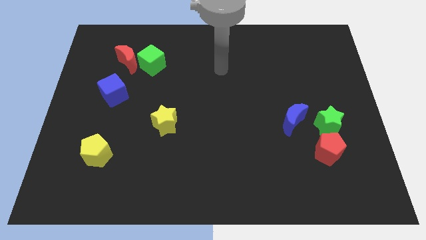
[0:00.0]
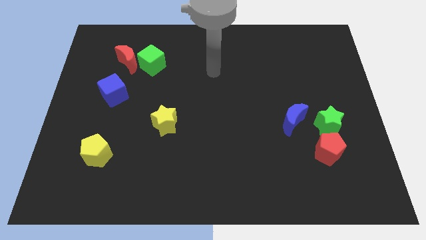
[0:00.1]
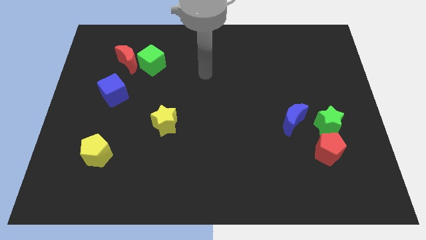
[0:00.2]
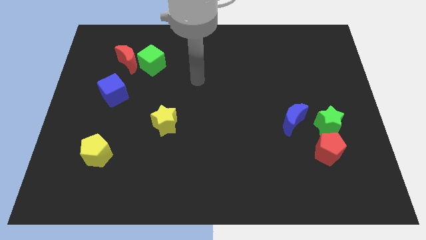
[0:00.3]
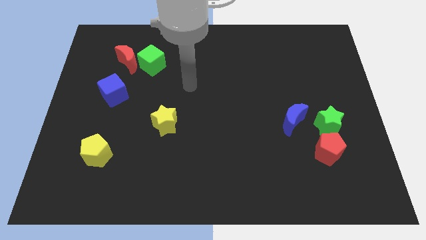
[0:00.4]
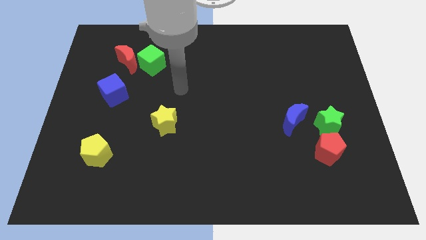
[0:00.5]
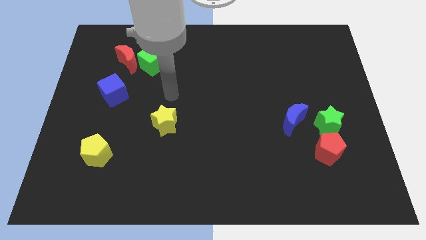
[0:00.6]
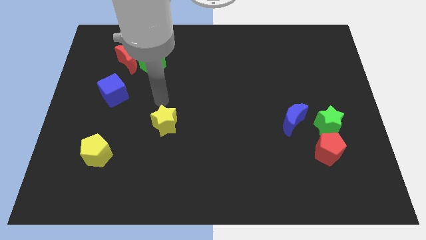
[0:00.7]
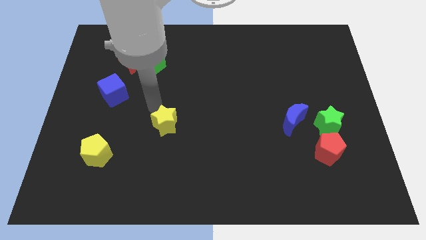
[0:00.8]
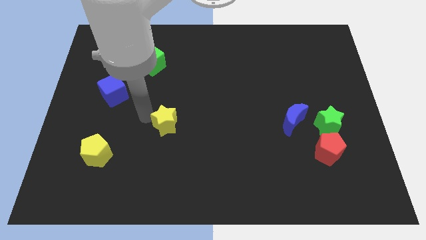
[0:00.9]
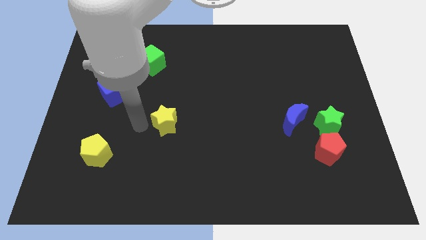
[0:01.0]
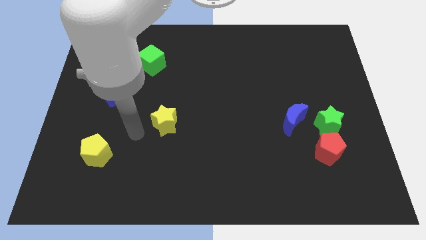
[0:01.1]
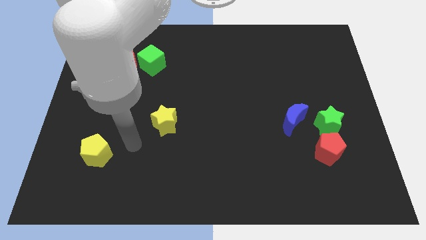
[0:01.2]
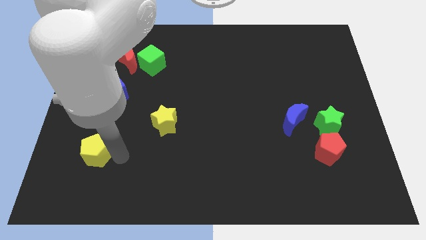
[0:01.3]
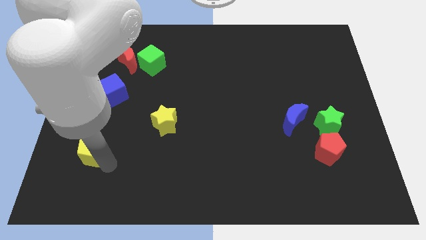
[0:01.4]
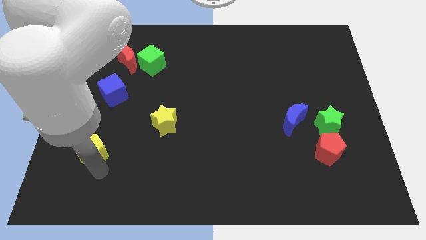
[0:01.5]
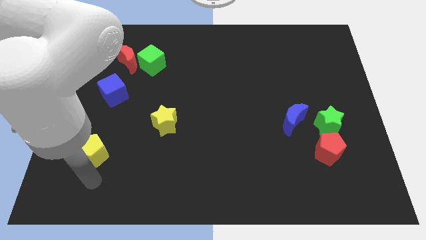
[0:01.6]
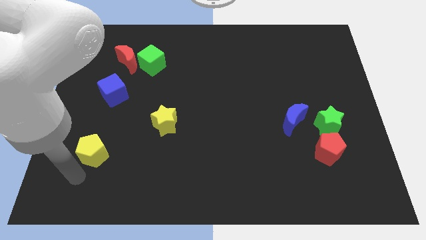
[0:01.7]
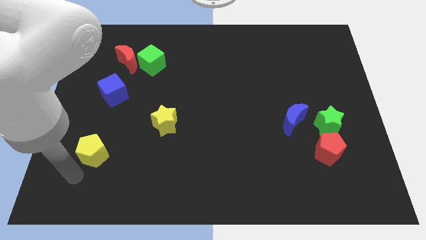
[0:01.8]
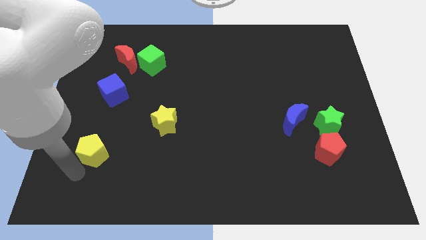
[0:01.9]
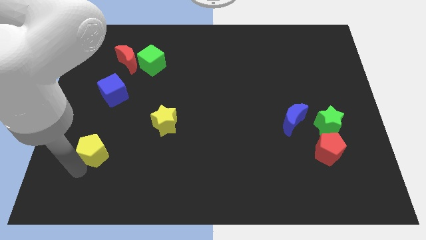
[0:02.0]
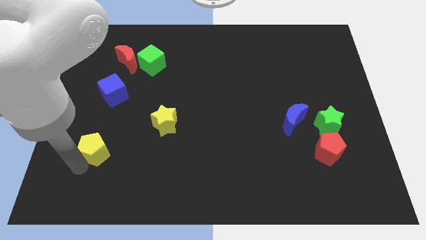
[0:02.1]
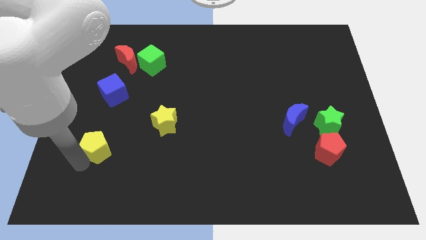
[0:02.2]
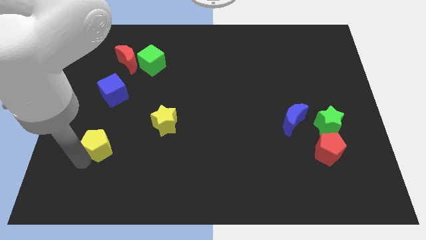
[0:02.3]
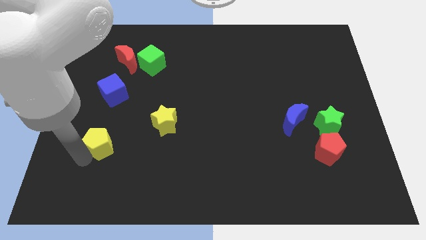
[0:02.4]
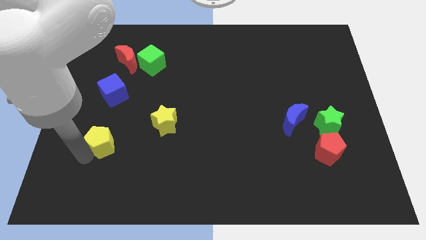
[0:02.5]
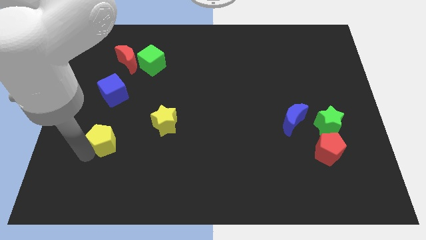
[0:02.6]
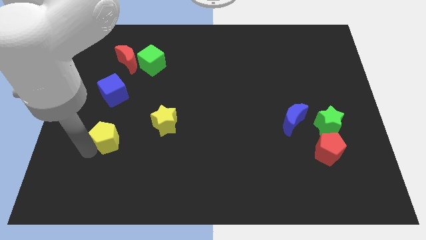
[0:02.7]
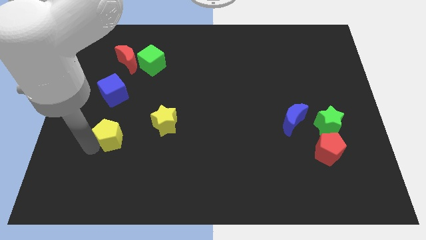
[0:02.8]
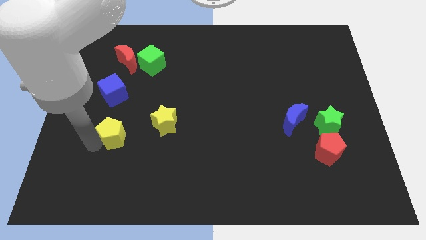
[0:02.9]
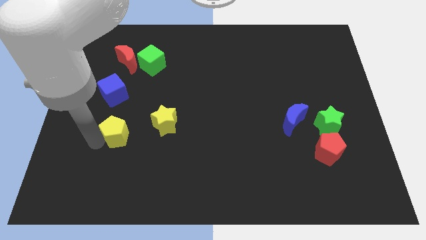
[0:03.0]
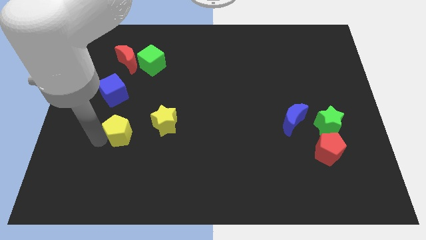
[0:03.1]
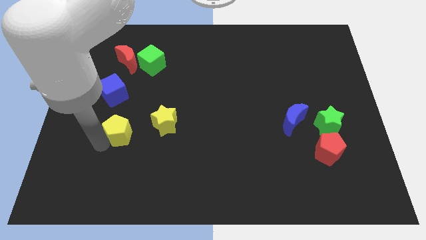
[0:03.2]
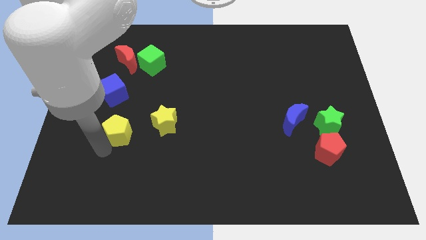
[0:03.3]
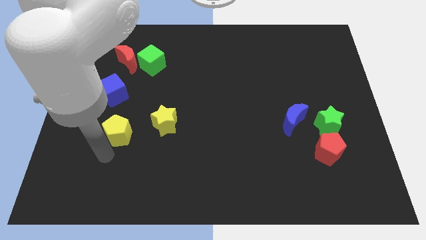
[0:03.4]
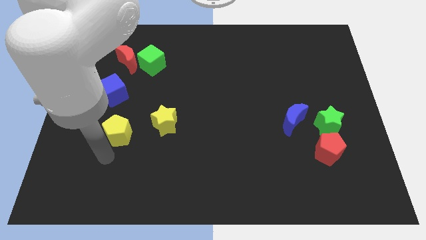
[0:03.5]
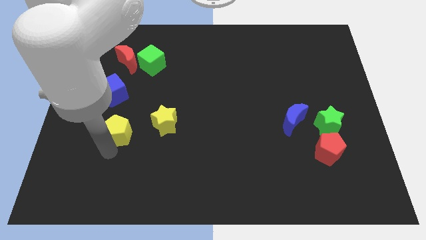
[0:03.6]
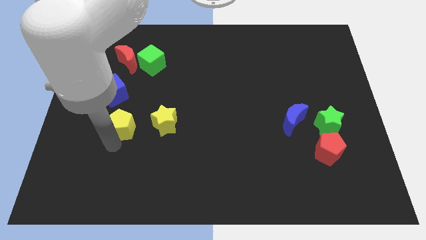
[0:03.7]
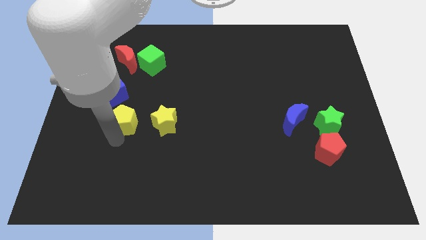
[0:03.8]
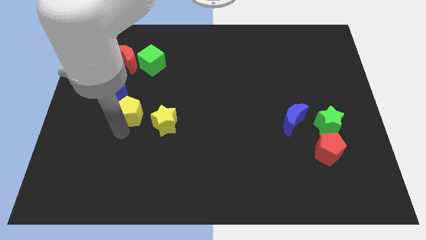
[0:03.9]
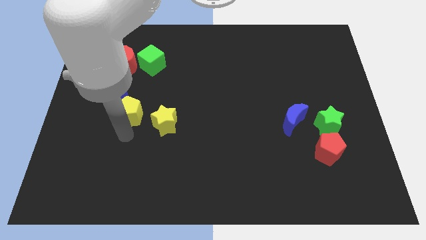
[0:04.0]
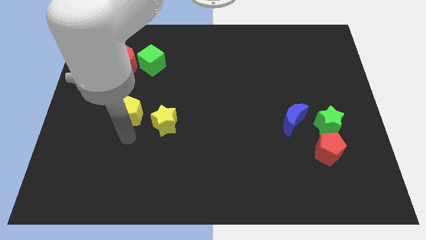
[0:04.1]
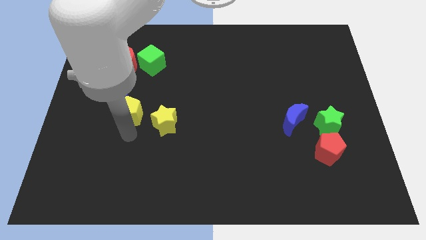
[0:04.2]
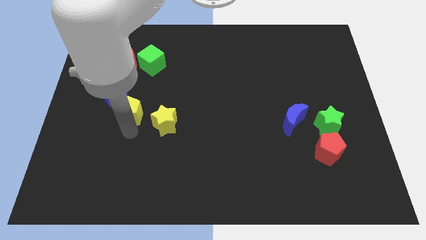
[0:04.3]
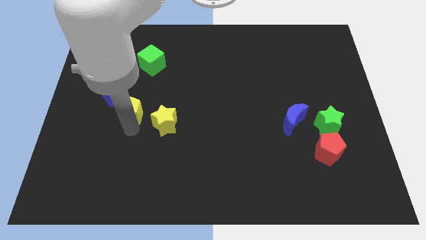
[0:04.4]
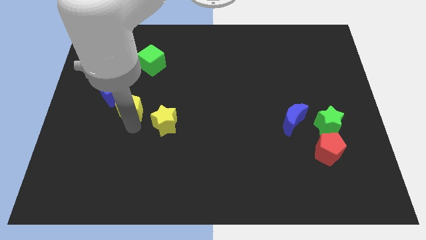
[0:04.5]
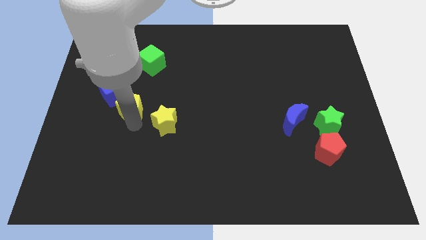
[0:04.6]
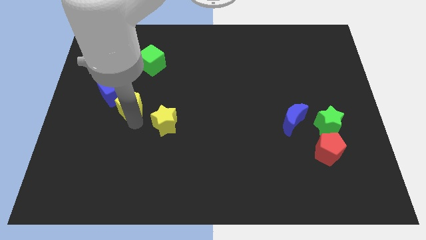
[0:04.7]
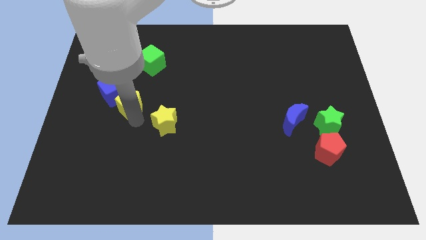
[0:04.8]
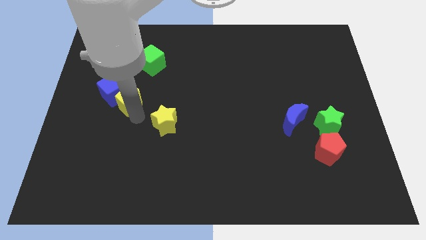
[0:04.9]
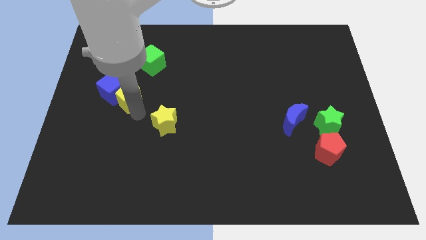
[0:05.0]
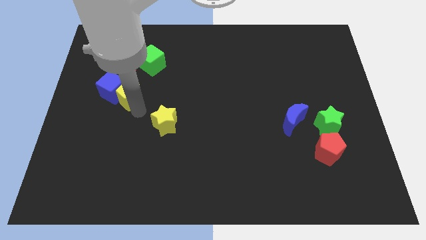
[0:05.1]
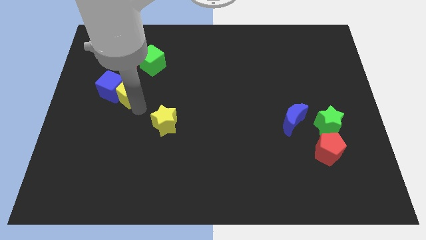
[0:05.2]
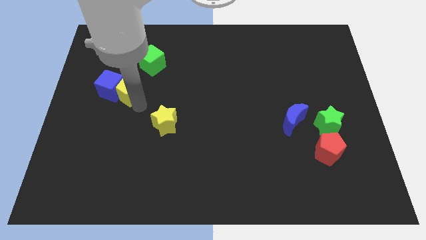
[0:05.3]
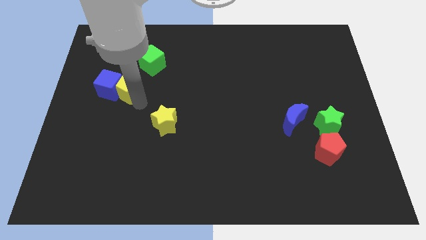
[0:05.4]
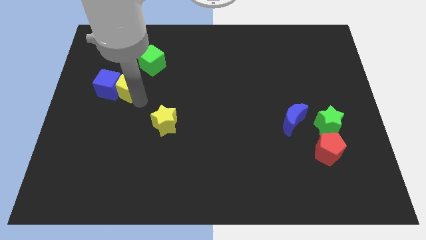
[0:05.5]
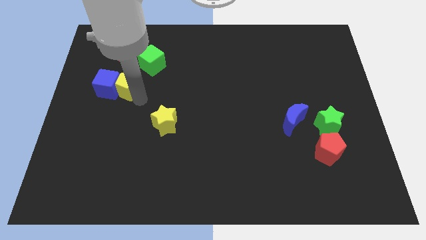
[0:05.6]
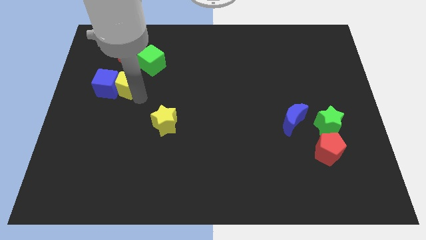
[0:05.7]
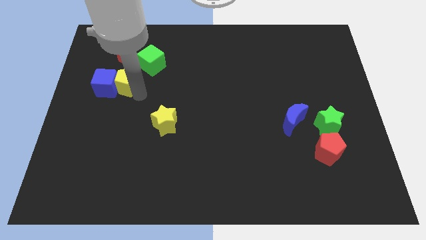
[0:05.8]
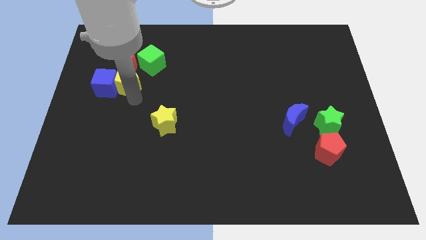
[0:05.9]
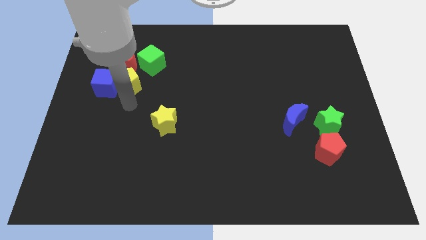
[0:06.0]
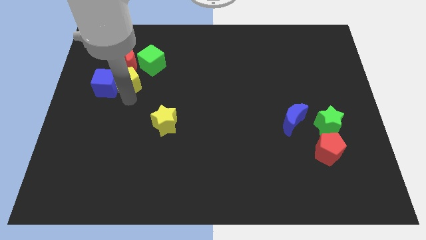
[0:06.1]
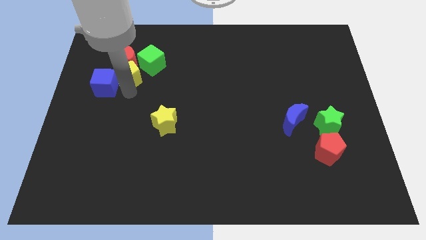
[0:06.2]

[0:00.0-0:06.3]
put the yellow pentagon next to the red moon

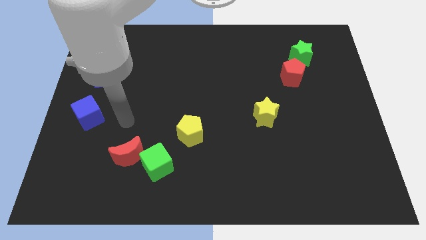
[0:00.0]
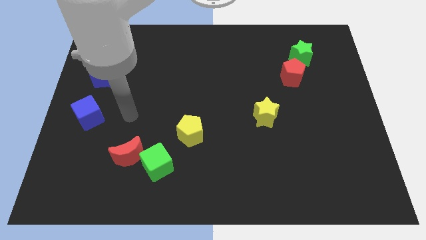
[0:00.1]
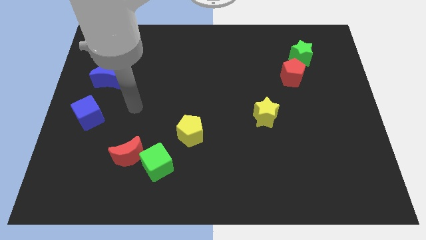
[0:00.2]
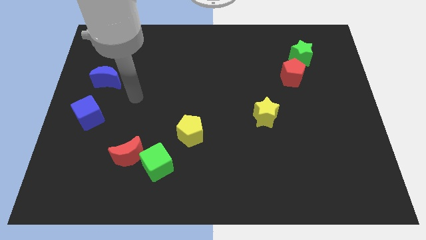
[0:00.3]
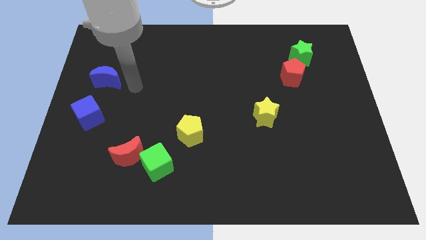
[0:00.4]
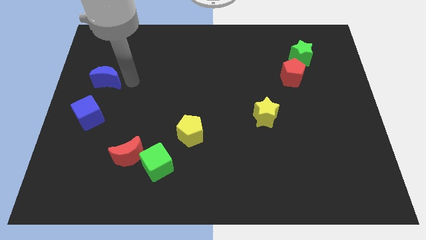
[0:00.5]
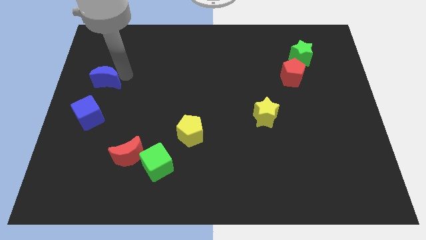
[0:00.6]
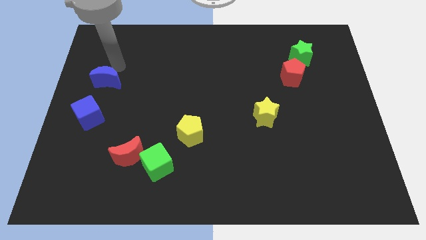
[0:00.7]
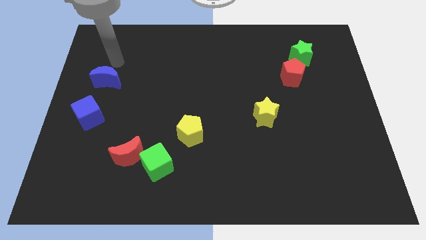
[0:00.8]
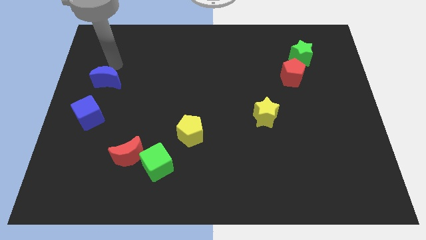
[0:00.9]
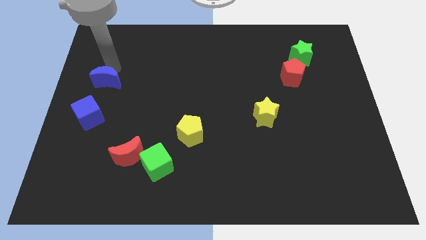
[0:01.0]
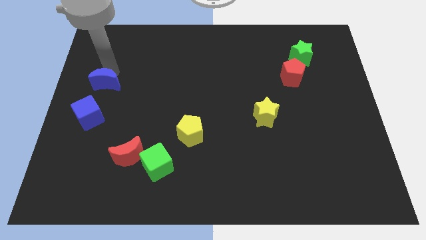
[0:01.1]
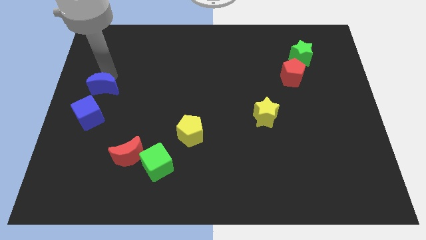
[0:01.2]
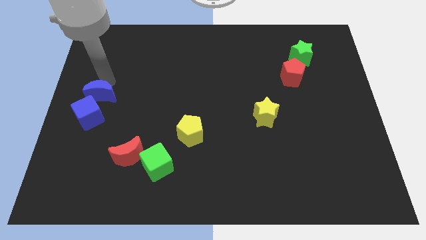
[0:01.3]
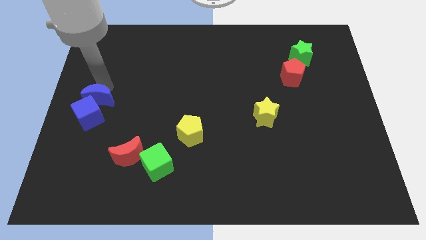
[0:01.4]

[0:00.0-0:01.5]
move the blue moon close to the blue cube
